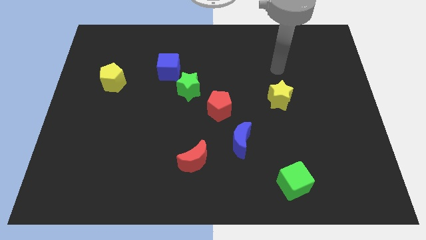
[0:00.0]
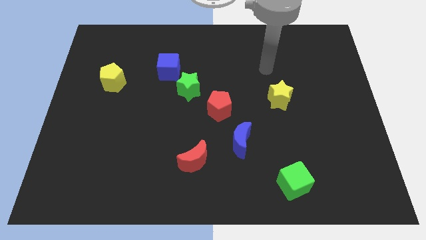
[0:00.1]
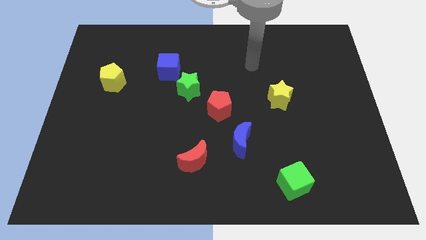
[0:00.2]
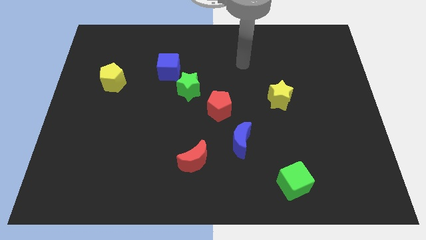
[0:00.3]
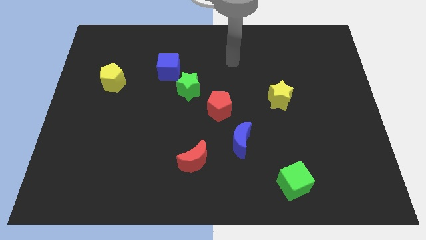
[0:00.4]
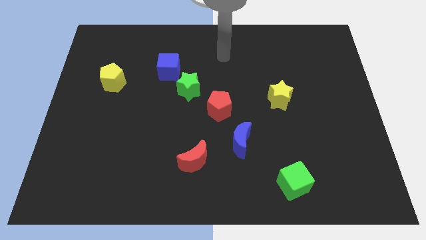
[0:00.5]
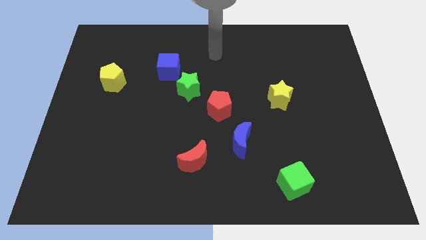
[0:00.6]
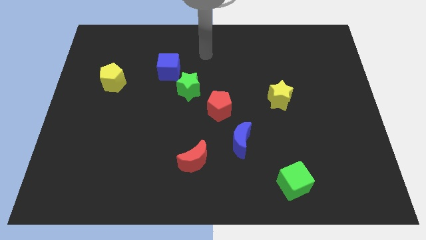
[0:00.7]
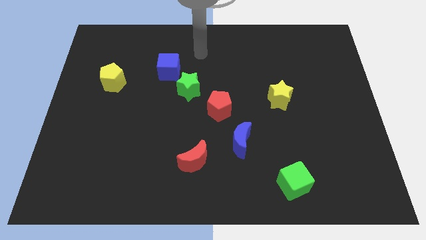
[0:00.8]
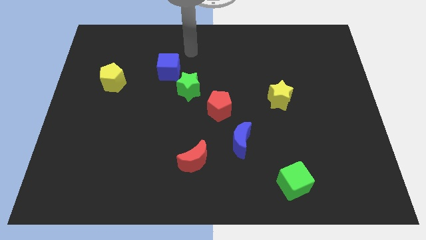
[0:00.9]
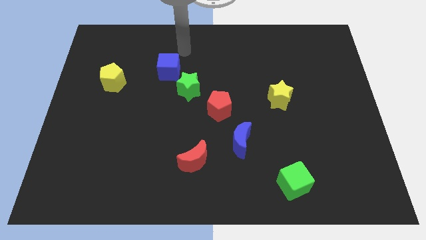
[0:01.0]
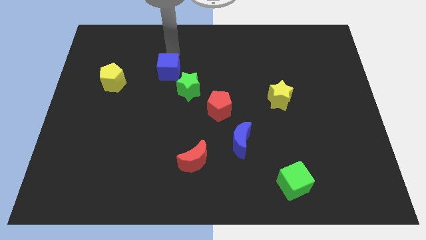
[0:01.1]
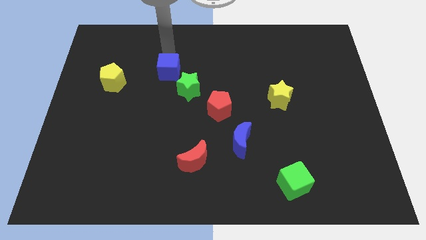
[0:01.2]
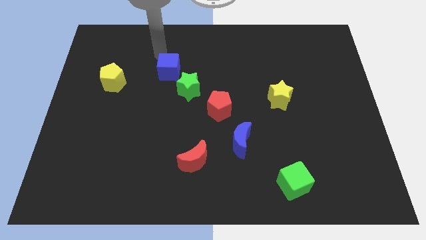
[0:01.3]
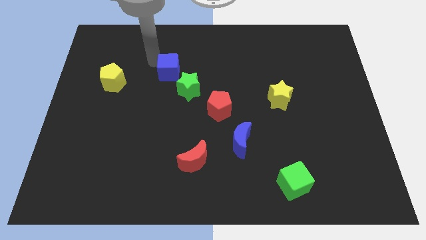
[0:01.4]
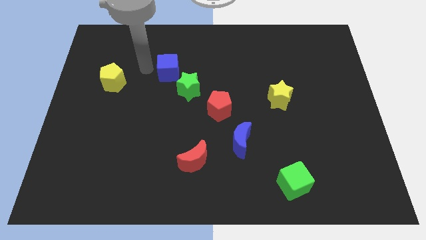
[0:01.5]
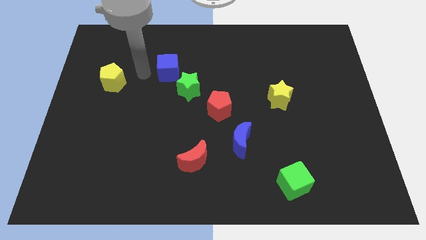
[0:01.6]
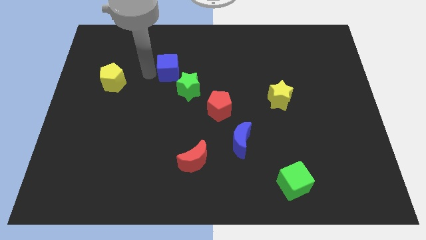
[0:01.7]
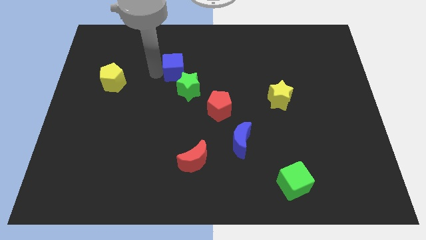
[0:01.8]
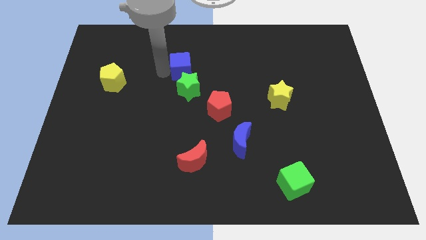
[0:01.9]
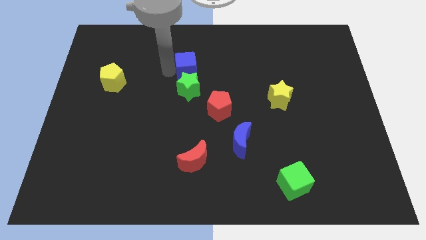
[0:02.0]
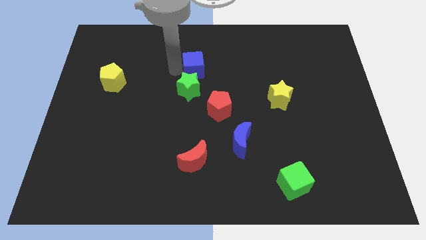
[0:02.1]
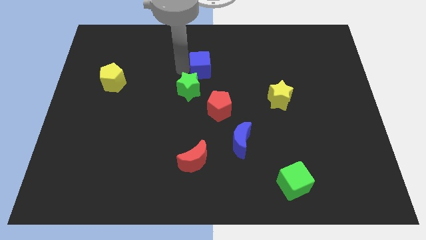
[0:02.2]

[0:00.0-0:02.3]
slightly slide the blue cube to the right

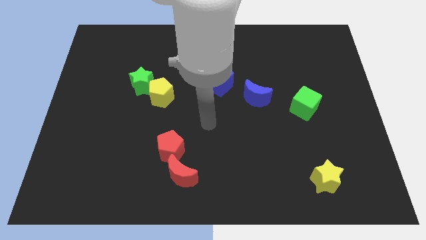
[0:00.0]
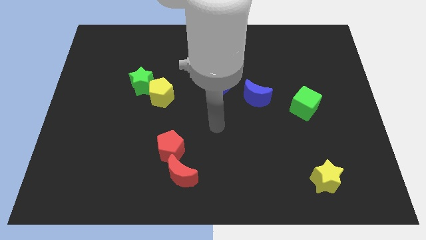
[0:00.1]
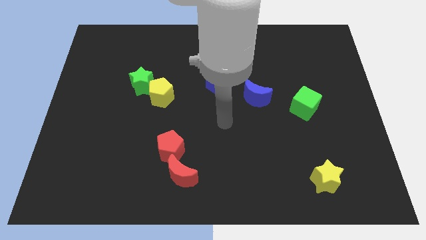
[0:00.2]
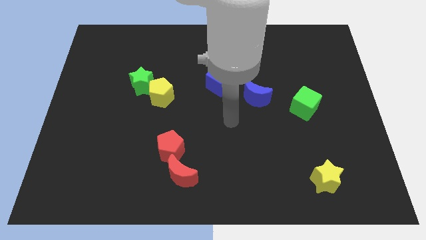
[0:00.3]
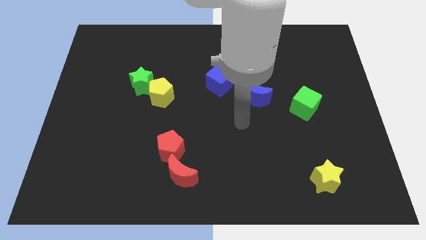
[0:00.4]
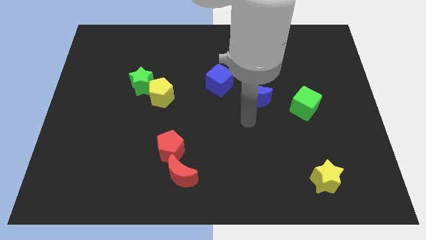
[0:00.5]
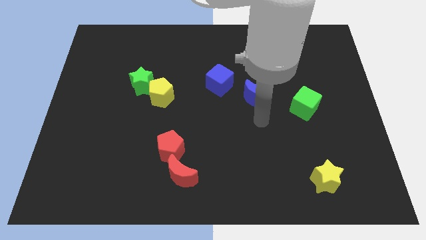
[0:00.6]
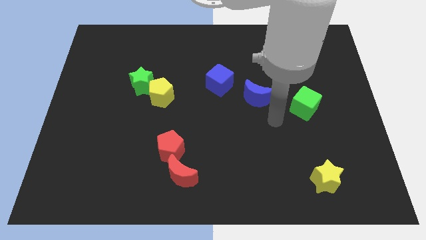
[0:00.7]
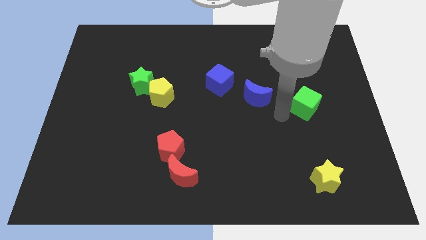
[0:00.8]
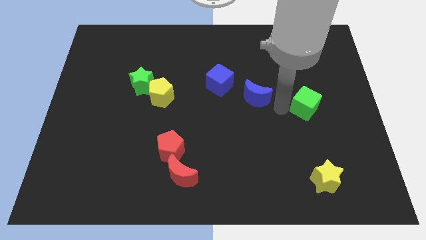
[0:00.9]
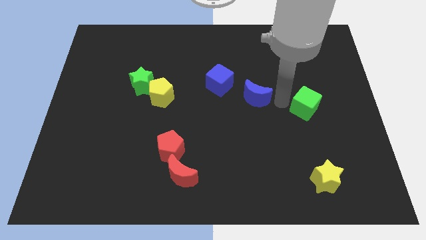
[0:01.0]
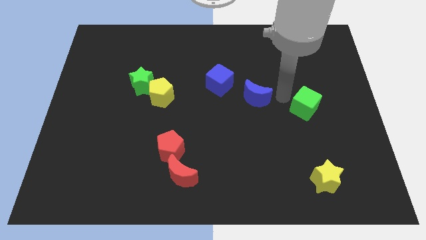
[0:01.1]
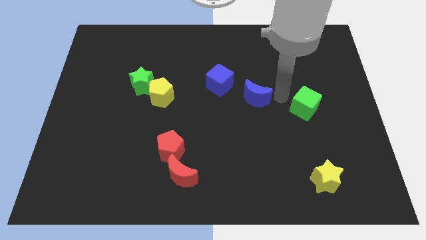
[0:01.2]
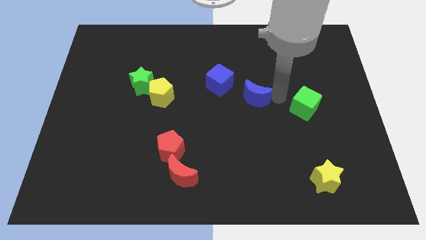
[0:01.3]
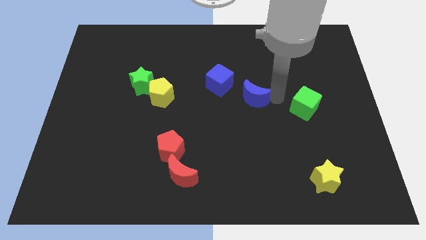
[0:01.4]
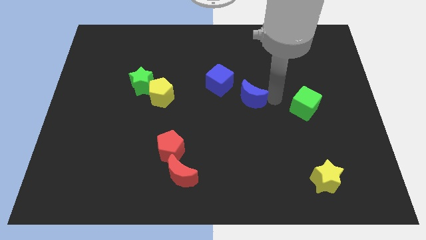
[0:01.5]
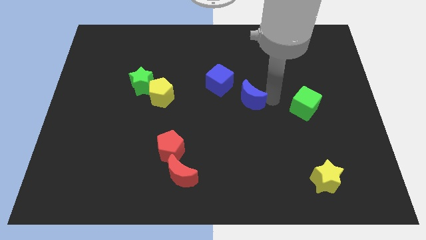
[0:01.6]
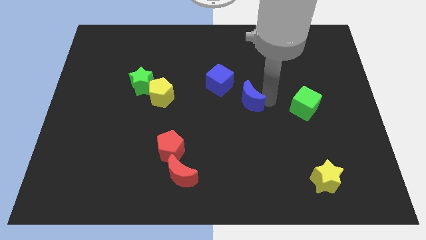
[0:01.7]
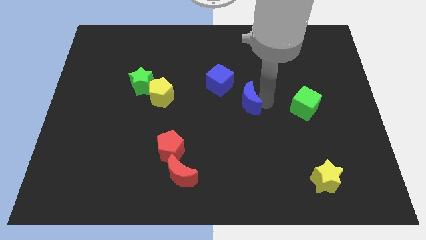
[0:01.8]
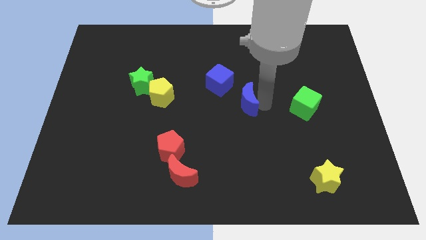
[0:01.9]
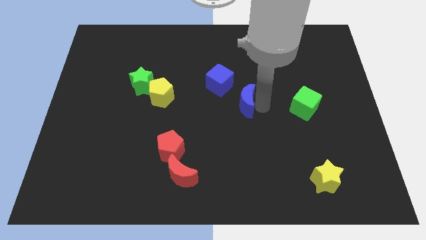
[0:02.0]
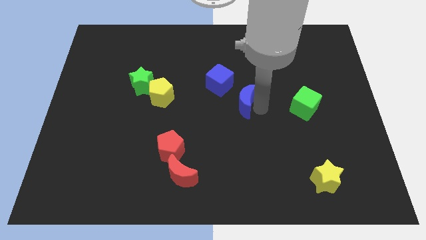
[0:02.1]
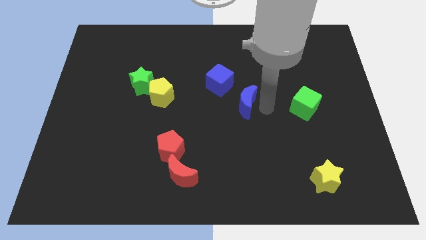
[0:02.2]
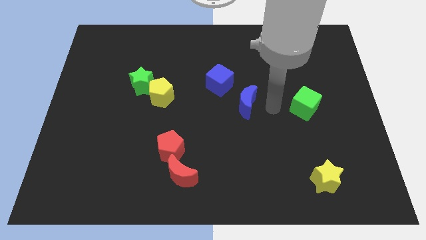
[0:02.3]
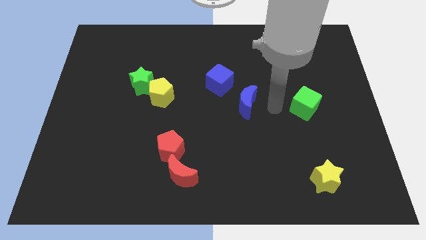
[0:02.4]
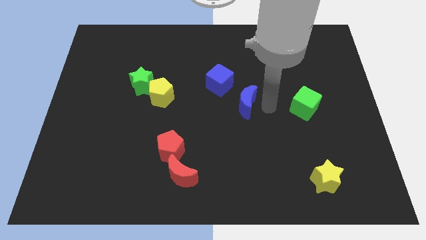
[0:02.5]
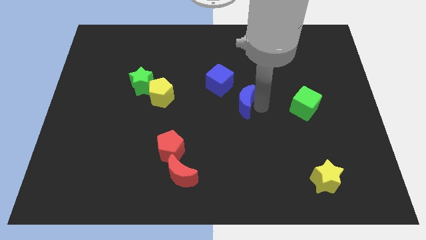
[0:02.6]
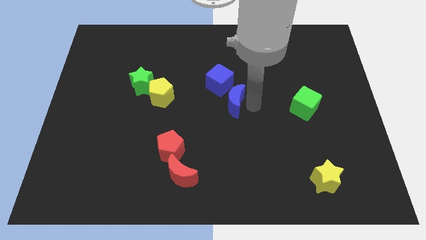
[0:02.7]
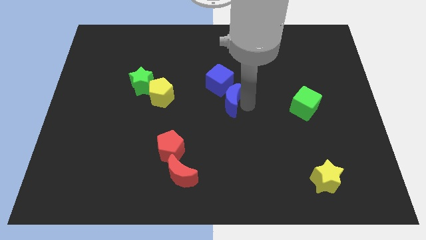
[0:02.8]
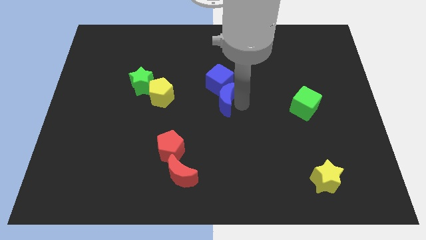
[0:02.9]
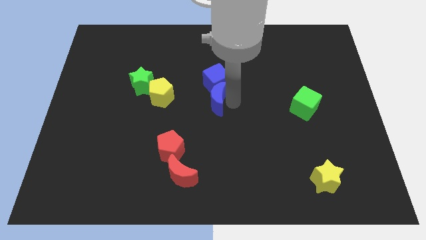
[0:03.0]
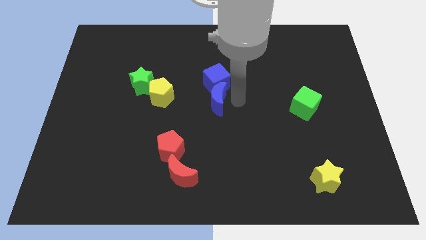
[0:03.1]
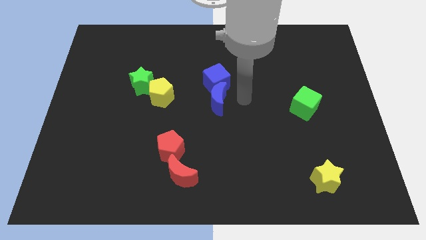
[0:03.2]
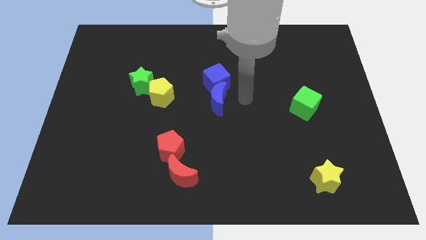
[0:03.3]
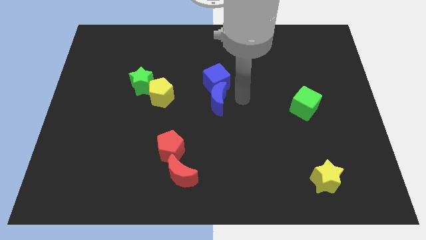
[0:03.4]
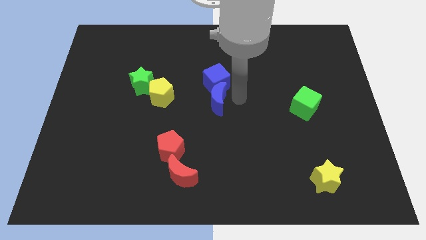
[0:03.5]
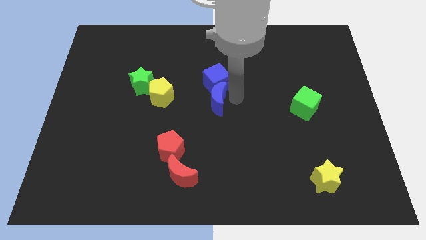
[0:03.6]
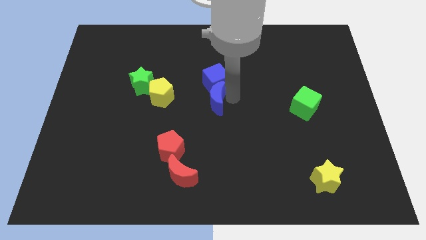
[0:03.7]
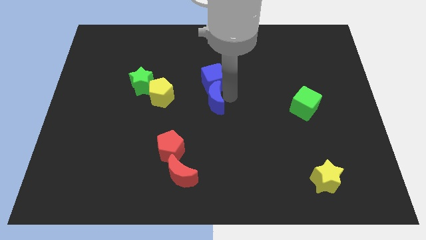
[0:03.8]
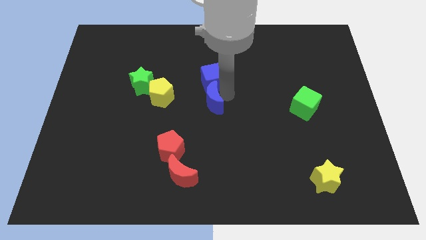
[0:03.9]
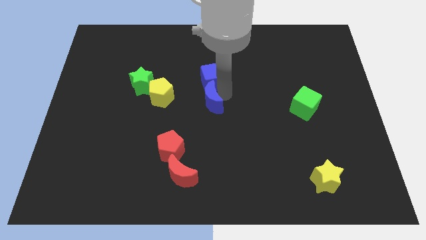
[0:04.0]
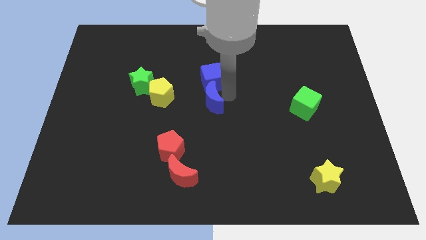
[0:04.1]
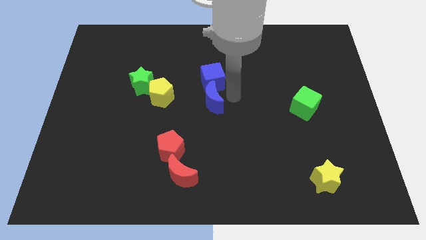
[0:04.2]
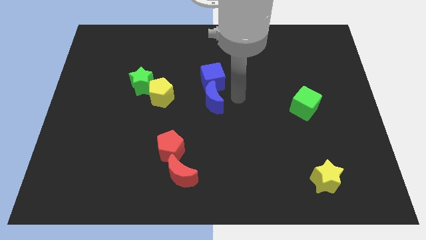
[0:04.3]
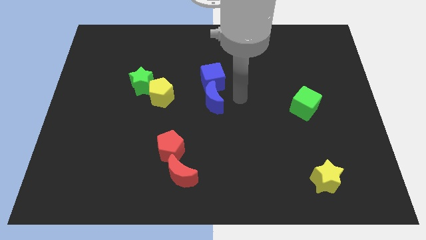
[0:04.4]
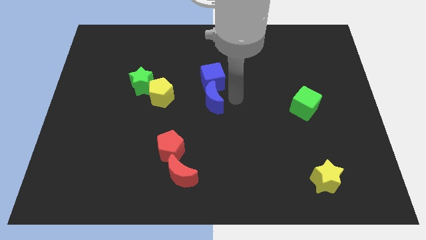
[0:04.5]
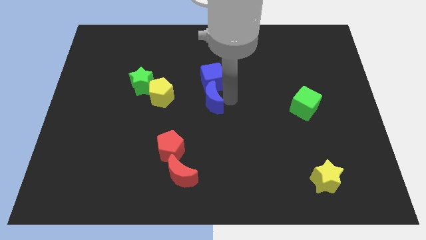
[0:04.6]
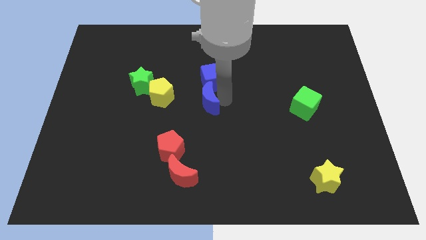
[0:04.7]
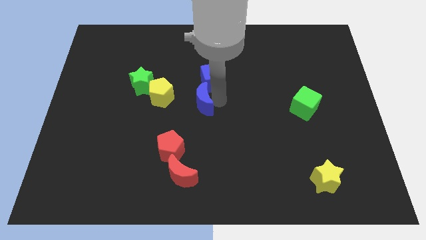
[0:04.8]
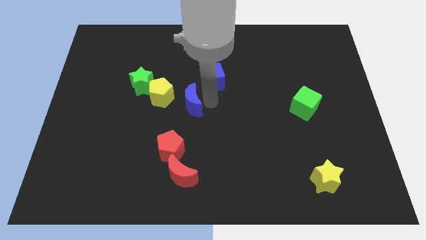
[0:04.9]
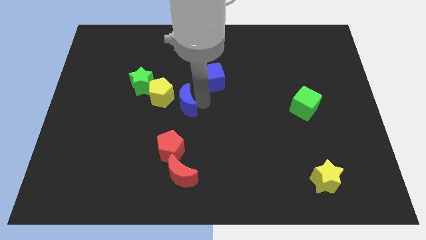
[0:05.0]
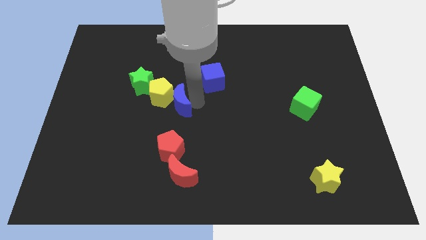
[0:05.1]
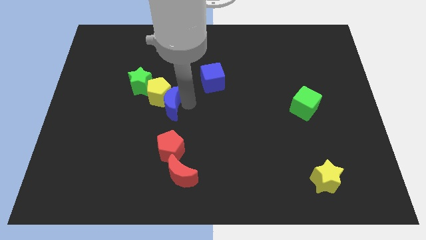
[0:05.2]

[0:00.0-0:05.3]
move the blue moon left

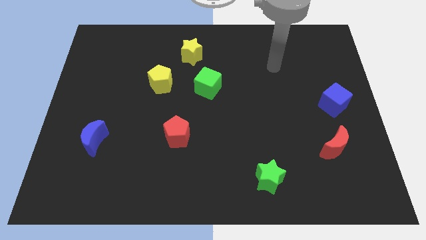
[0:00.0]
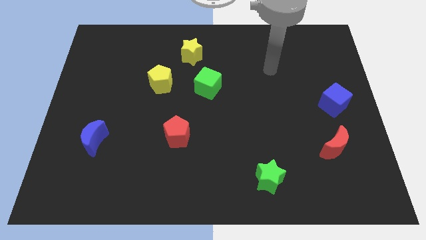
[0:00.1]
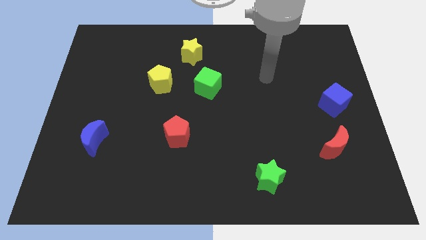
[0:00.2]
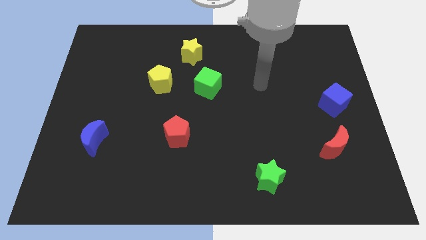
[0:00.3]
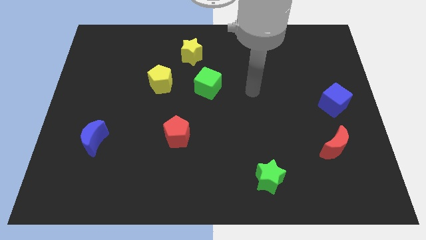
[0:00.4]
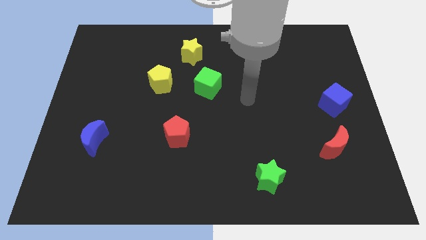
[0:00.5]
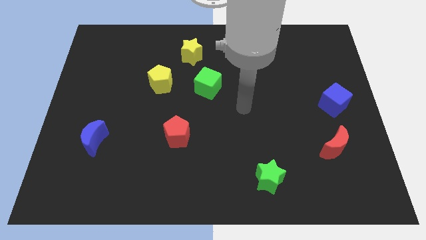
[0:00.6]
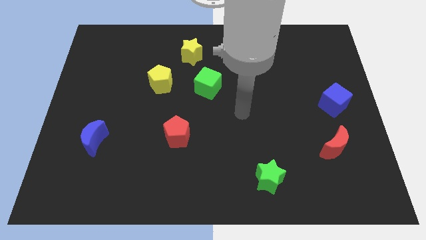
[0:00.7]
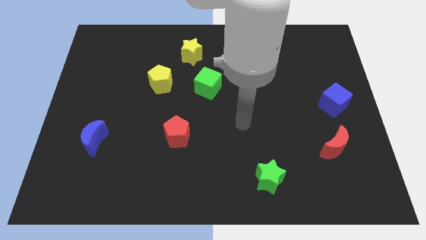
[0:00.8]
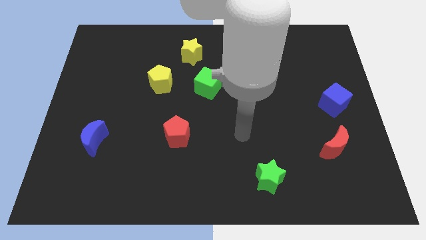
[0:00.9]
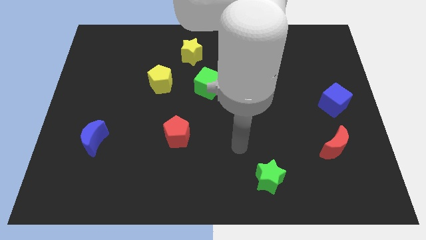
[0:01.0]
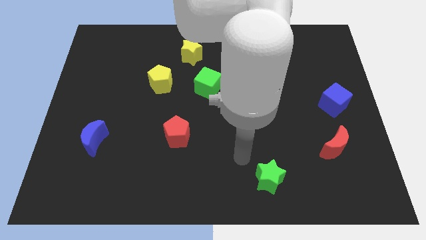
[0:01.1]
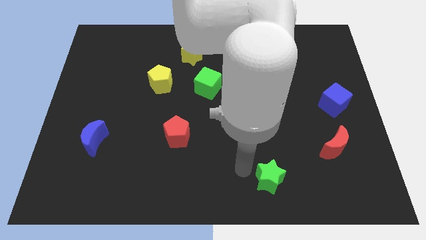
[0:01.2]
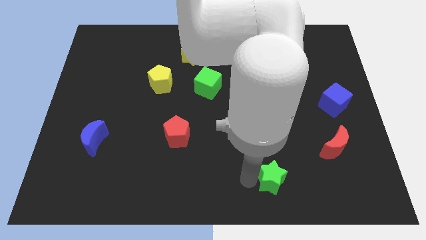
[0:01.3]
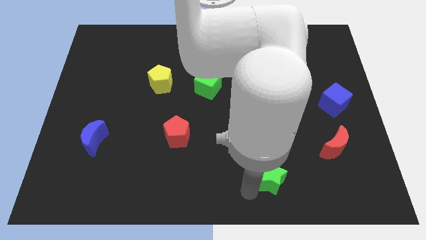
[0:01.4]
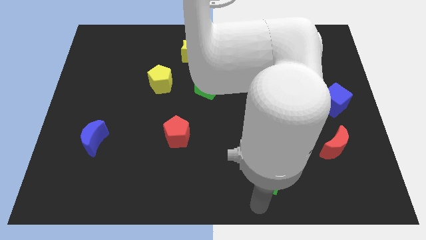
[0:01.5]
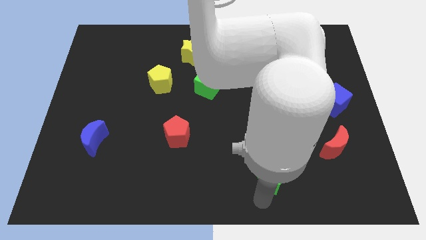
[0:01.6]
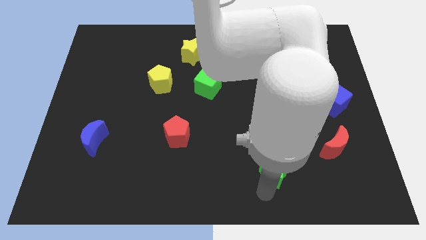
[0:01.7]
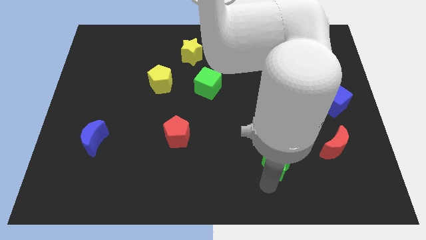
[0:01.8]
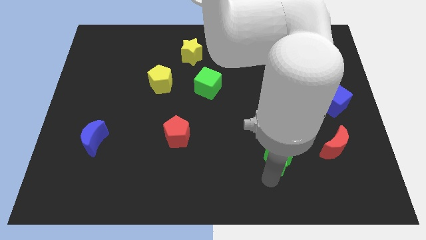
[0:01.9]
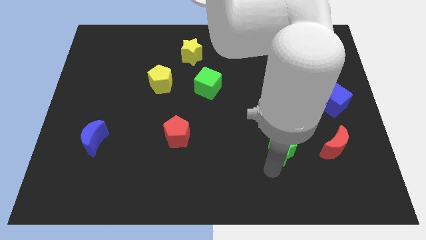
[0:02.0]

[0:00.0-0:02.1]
slide the green star a little up and then to the right
